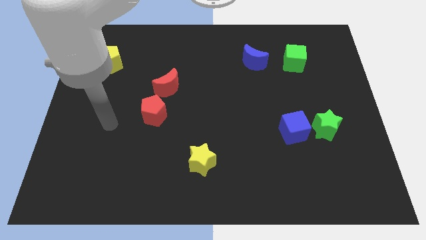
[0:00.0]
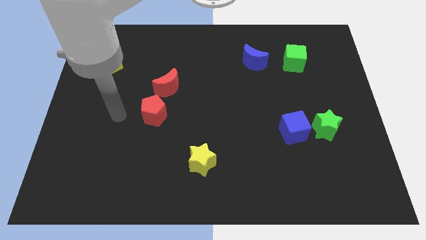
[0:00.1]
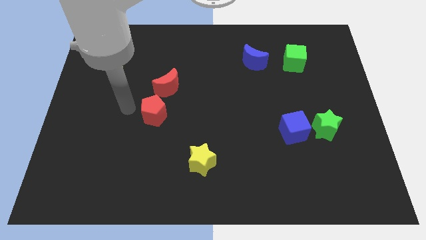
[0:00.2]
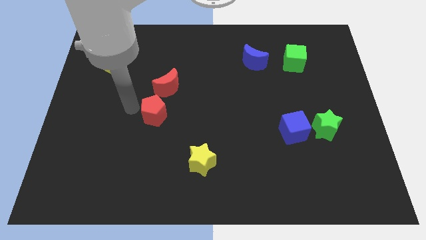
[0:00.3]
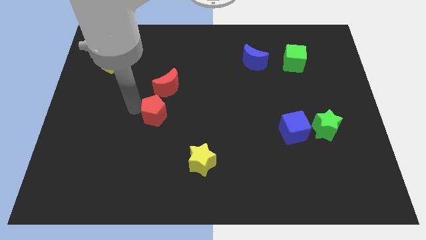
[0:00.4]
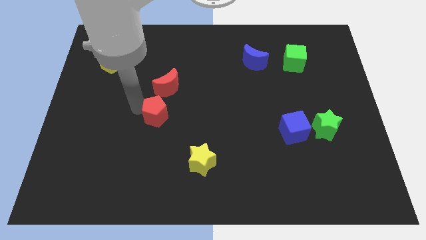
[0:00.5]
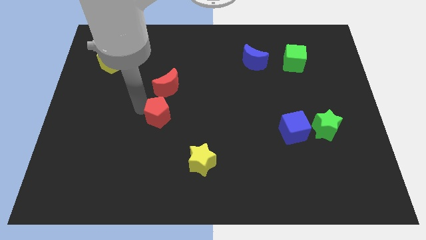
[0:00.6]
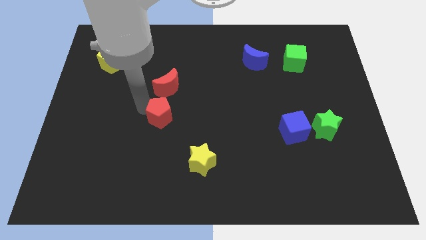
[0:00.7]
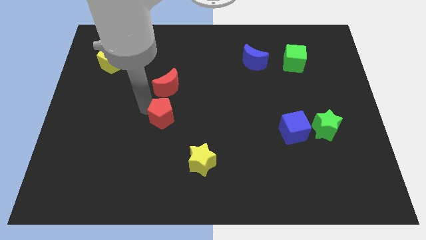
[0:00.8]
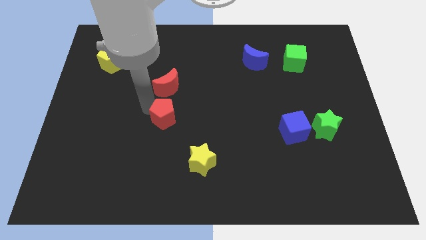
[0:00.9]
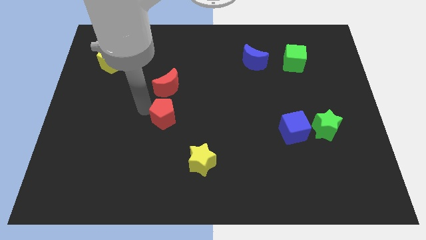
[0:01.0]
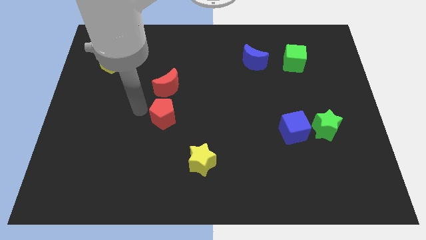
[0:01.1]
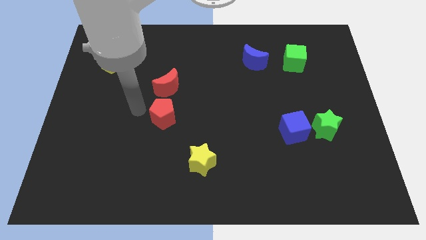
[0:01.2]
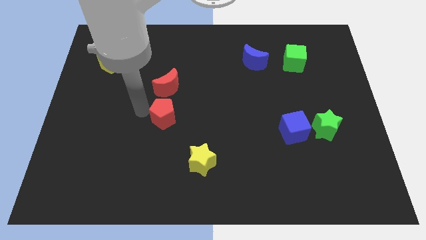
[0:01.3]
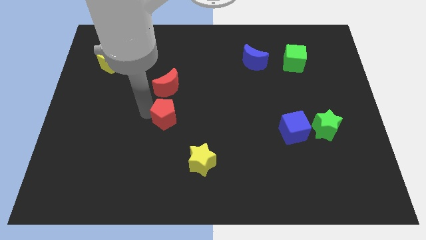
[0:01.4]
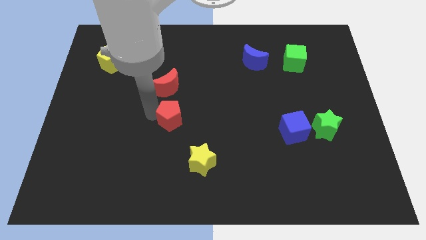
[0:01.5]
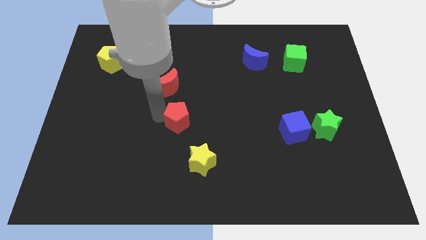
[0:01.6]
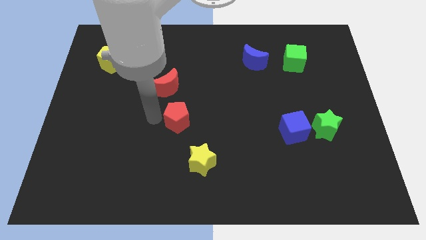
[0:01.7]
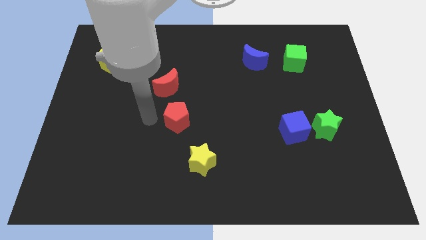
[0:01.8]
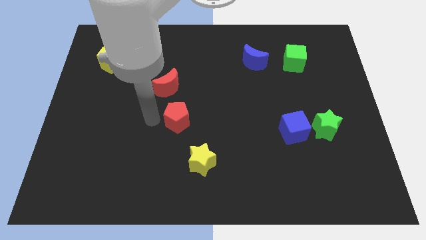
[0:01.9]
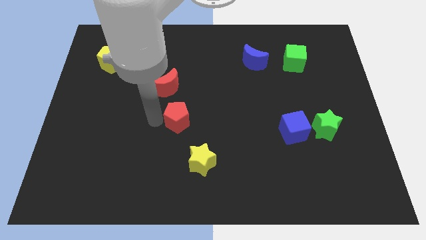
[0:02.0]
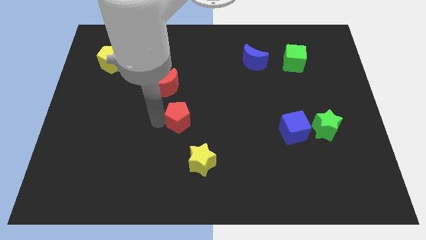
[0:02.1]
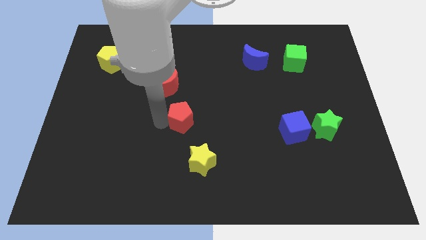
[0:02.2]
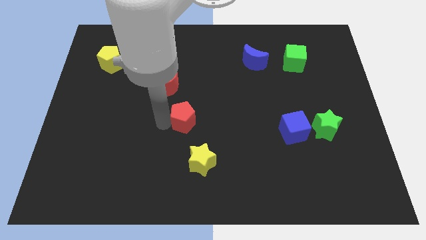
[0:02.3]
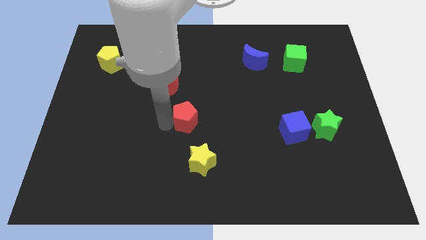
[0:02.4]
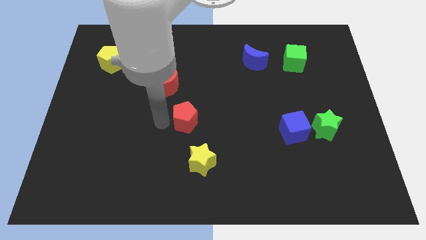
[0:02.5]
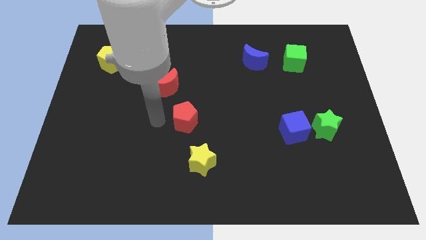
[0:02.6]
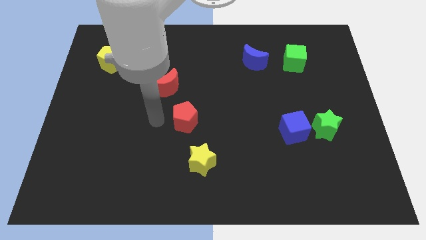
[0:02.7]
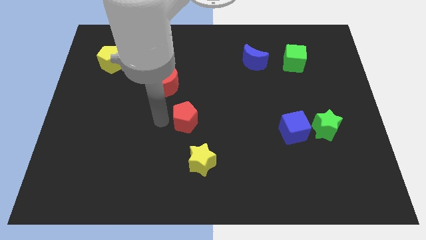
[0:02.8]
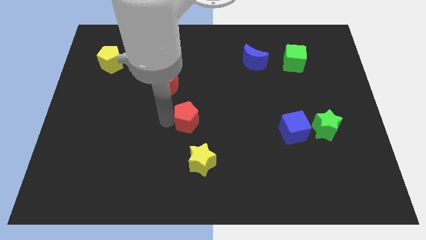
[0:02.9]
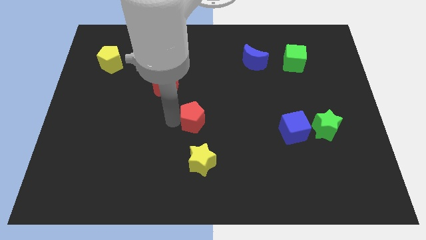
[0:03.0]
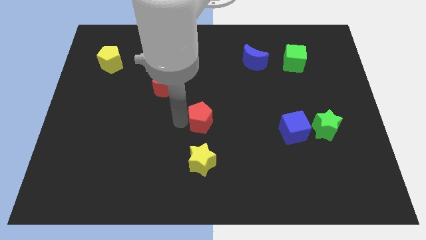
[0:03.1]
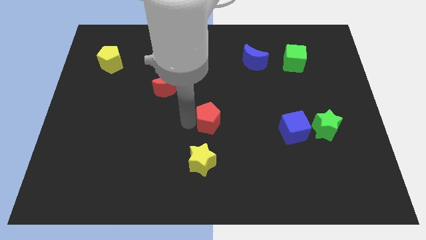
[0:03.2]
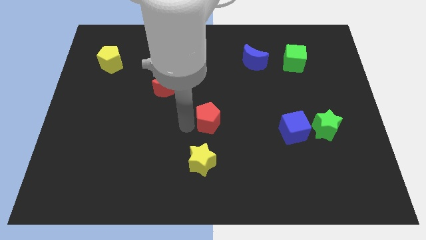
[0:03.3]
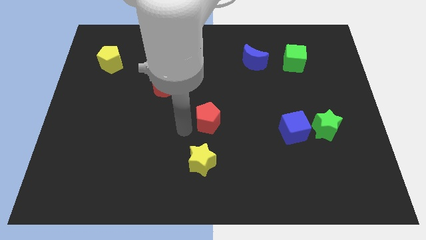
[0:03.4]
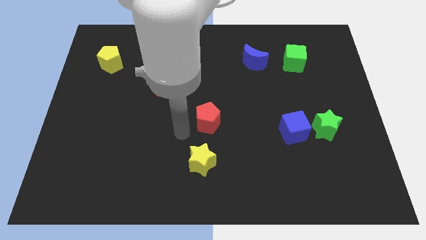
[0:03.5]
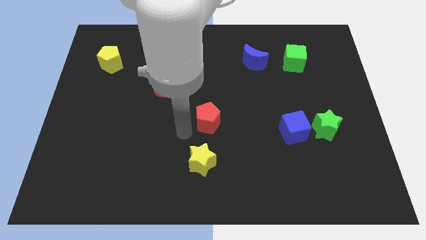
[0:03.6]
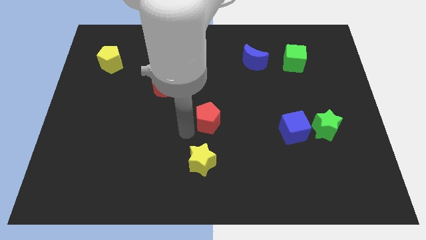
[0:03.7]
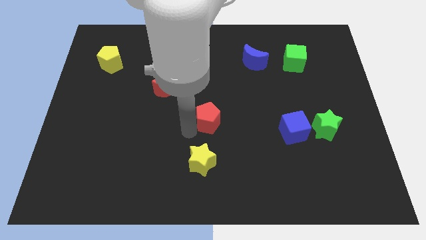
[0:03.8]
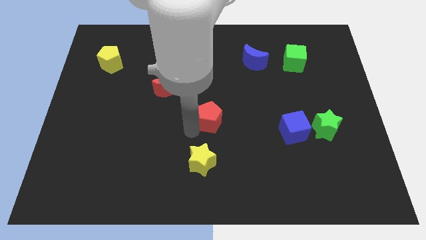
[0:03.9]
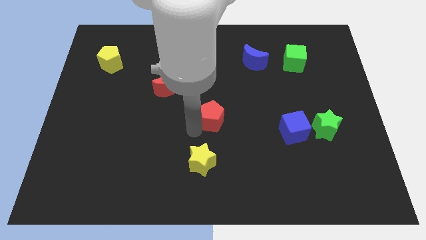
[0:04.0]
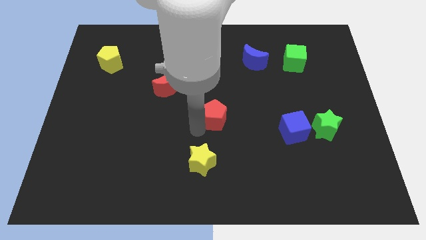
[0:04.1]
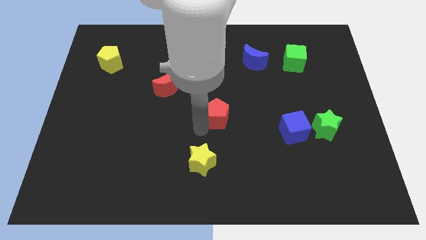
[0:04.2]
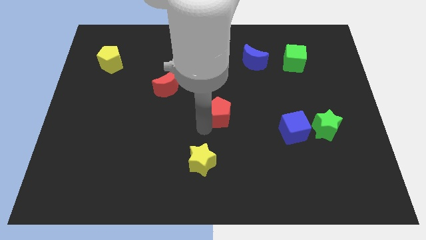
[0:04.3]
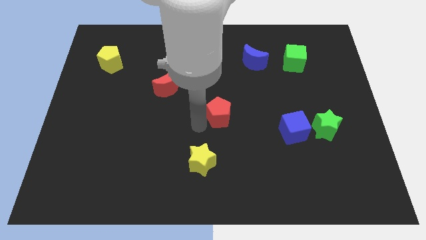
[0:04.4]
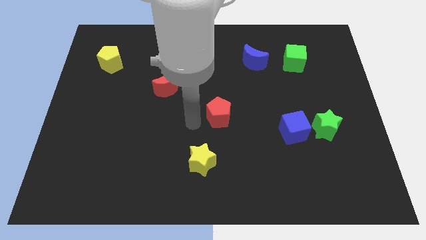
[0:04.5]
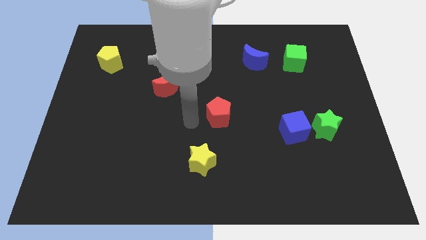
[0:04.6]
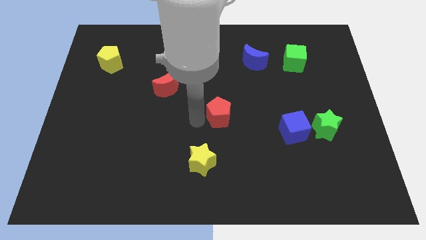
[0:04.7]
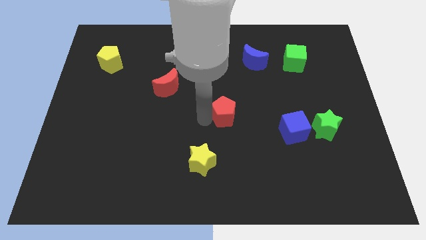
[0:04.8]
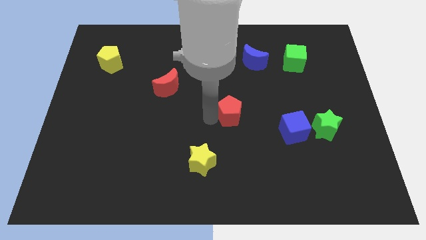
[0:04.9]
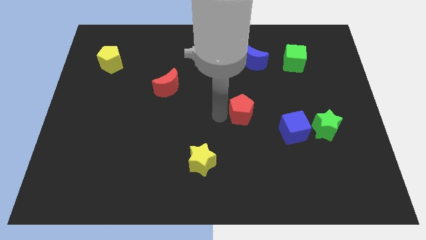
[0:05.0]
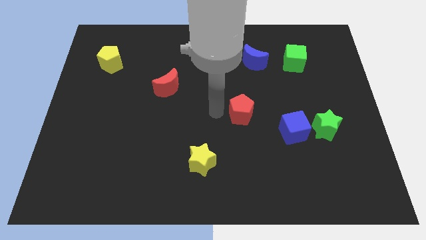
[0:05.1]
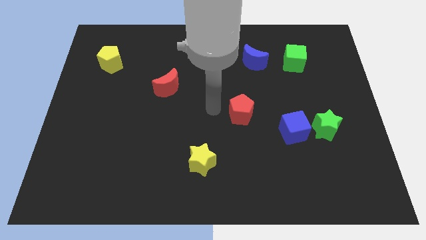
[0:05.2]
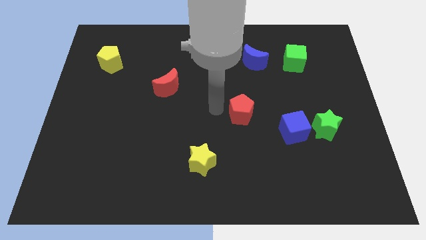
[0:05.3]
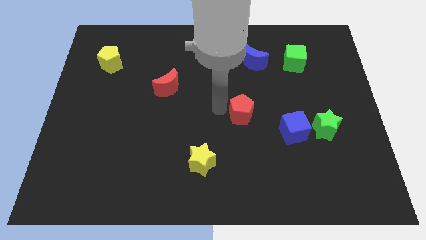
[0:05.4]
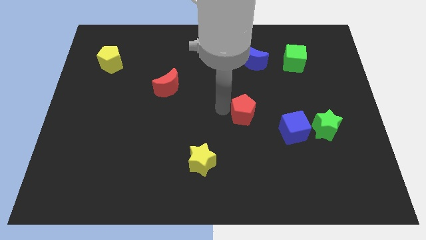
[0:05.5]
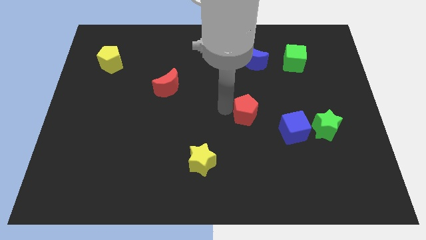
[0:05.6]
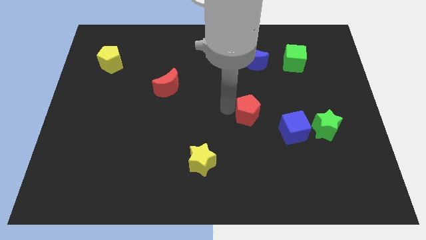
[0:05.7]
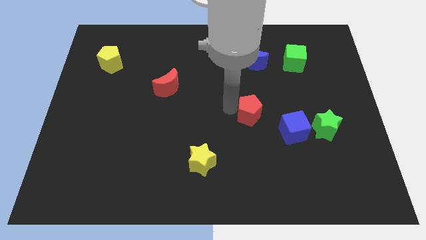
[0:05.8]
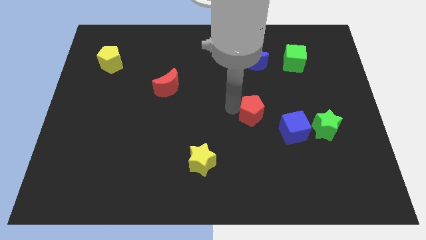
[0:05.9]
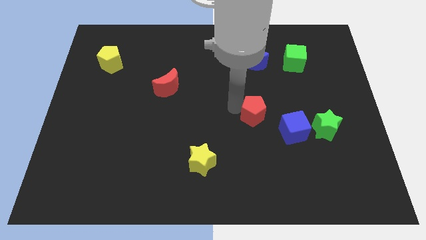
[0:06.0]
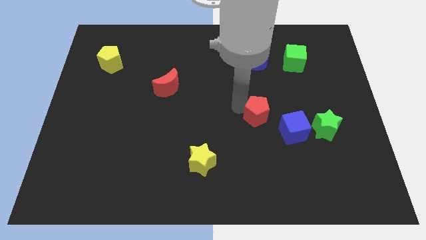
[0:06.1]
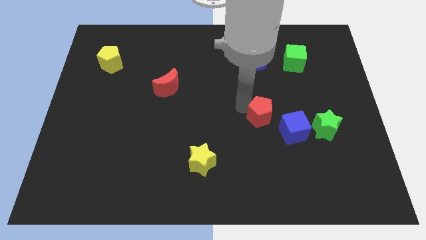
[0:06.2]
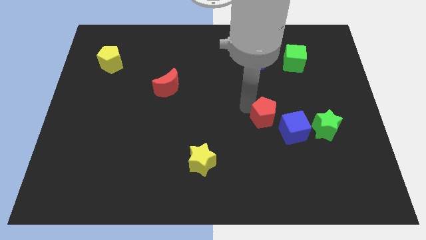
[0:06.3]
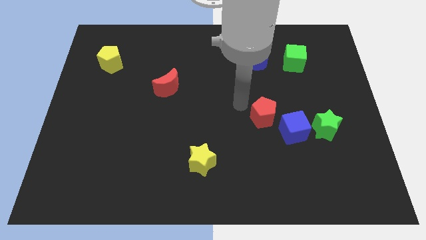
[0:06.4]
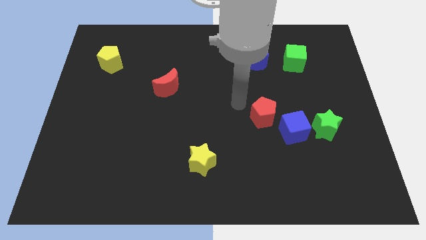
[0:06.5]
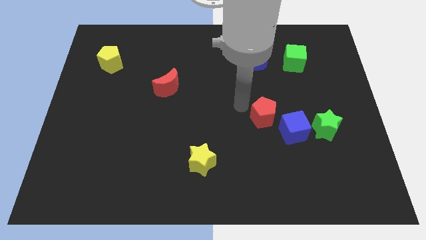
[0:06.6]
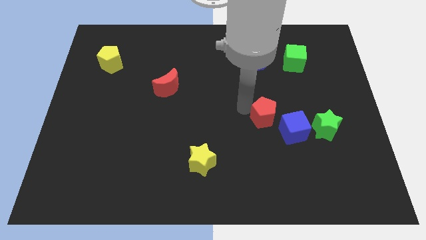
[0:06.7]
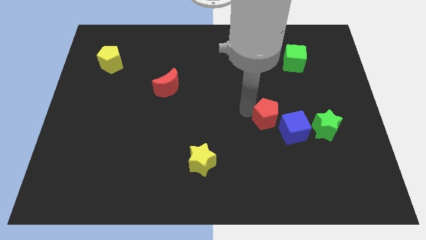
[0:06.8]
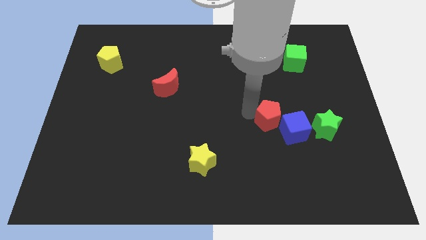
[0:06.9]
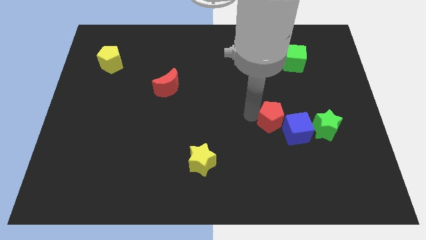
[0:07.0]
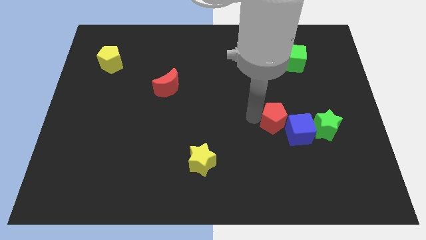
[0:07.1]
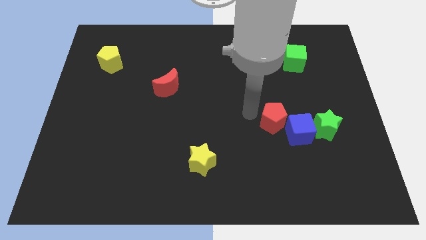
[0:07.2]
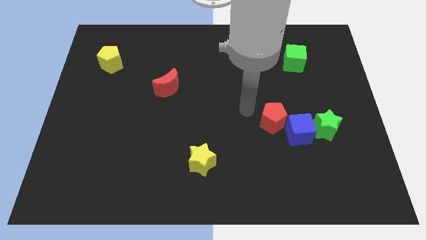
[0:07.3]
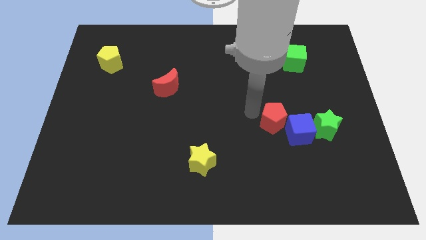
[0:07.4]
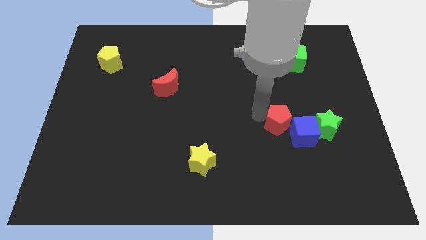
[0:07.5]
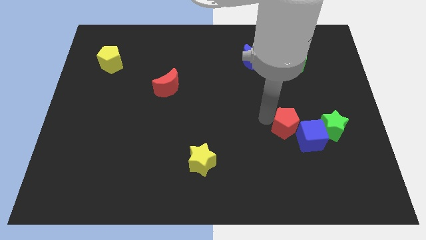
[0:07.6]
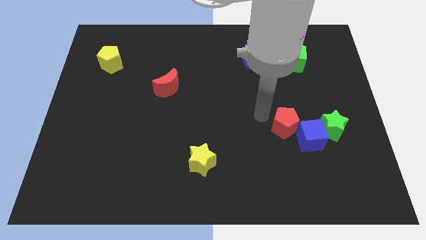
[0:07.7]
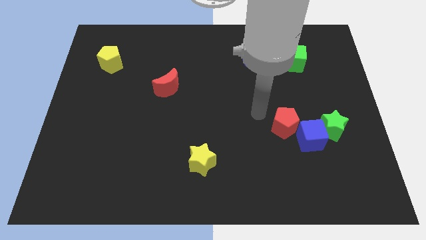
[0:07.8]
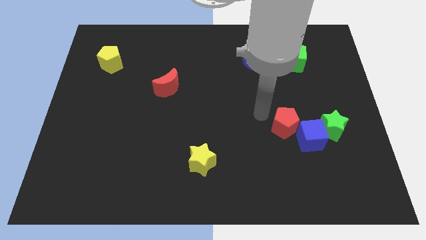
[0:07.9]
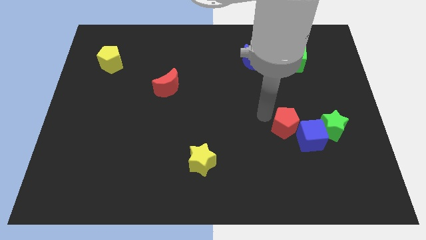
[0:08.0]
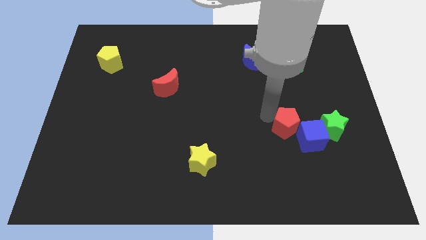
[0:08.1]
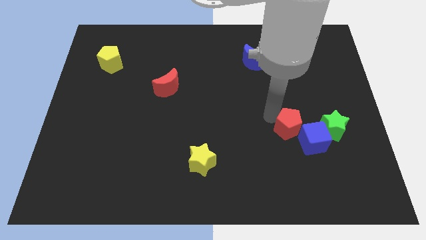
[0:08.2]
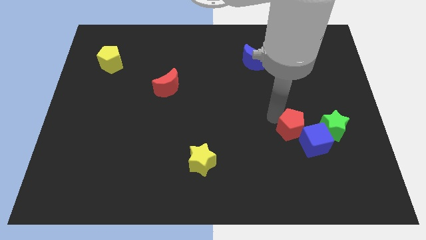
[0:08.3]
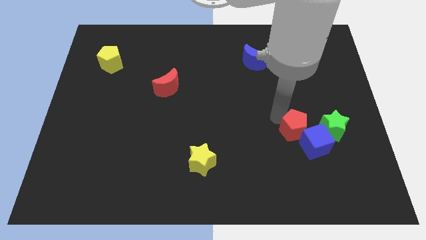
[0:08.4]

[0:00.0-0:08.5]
put the red pentagon to the blue cube
